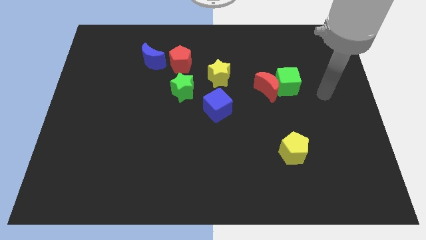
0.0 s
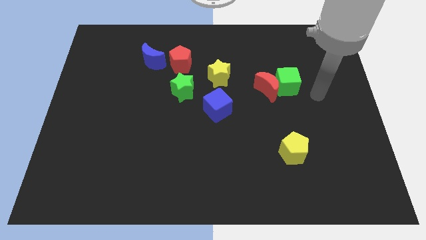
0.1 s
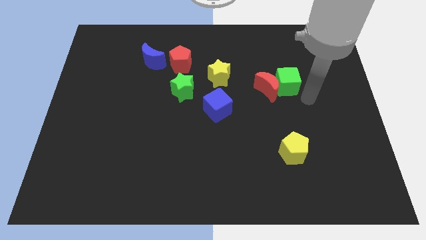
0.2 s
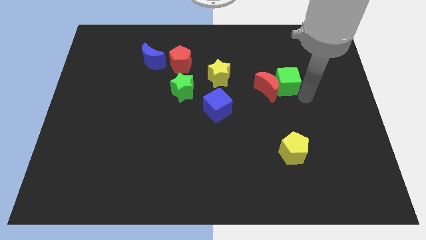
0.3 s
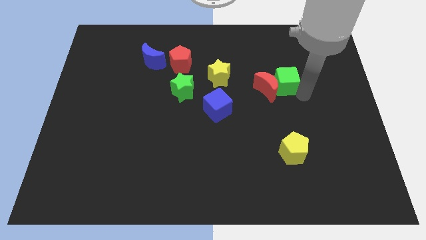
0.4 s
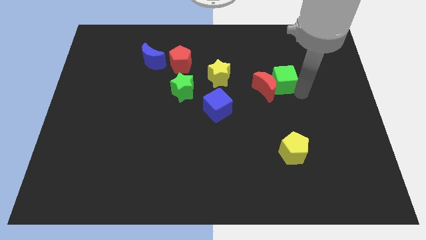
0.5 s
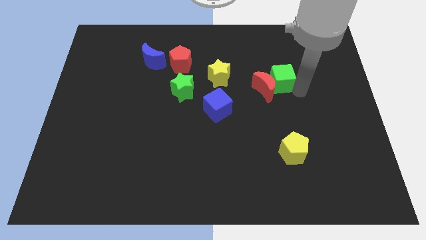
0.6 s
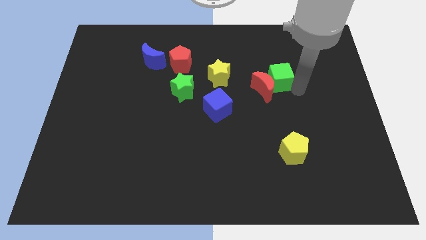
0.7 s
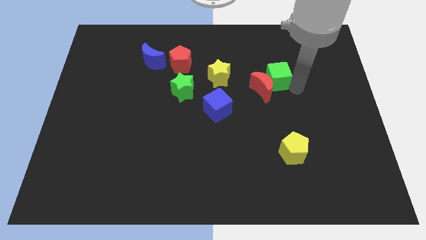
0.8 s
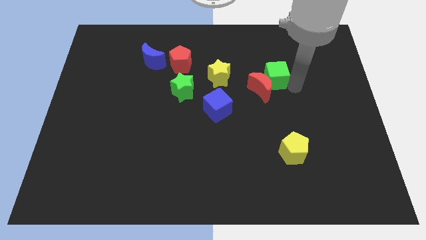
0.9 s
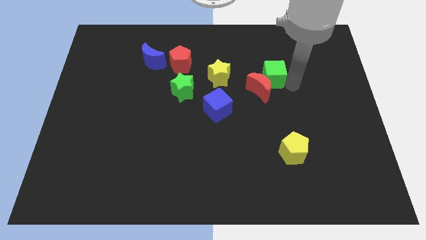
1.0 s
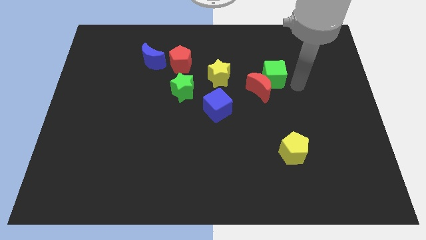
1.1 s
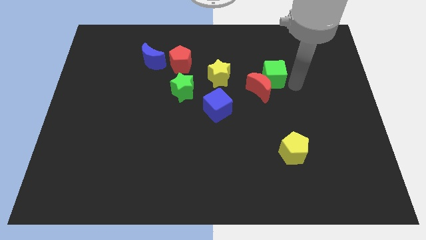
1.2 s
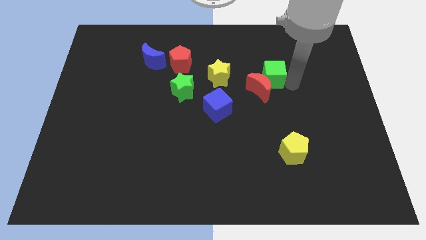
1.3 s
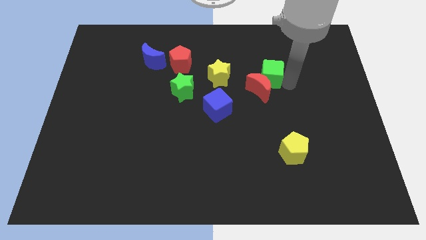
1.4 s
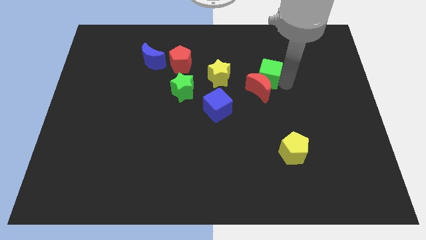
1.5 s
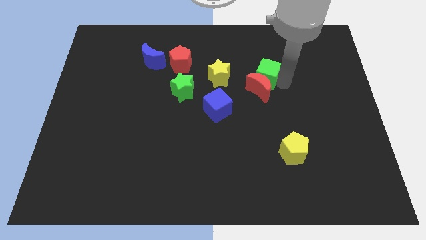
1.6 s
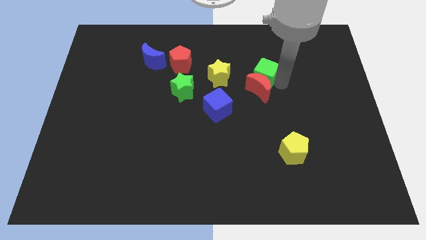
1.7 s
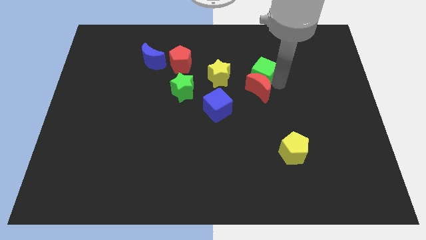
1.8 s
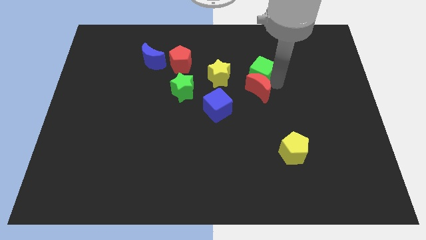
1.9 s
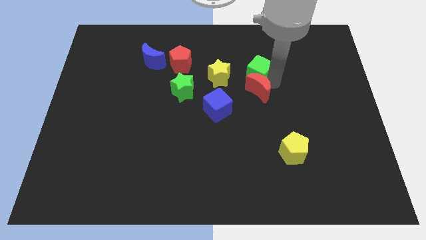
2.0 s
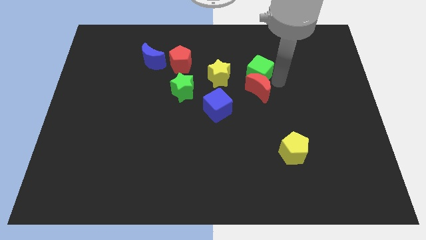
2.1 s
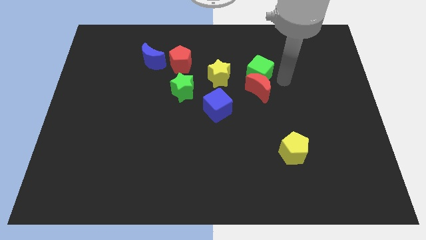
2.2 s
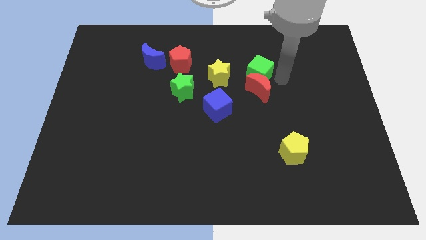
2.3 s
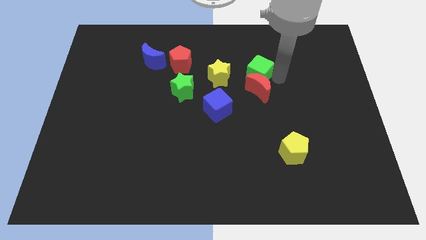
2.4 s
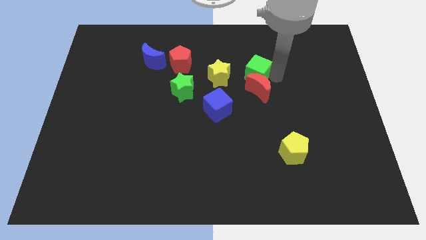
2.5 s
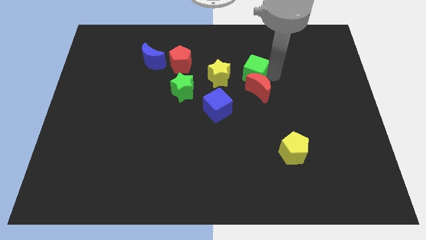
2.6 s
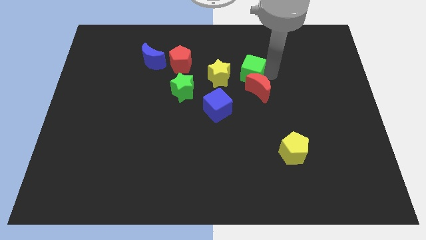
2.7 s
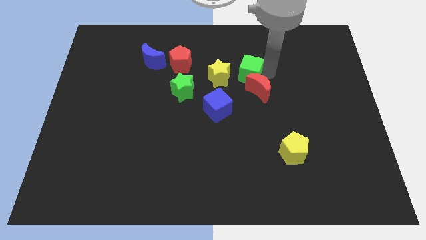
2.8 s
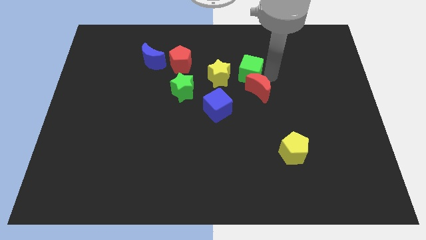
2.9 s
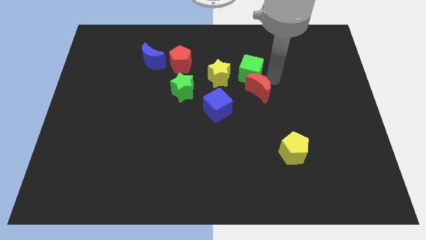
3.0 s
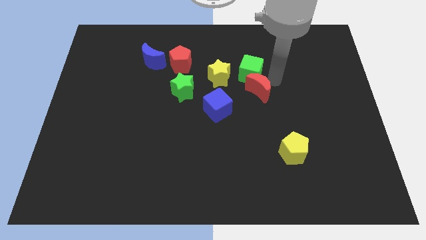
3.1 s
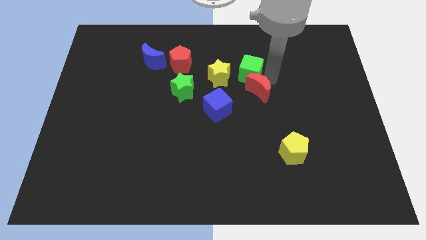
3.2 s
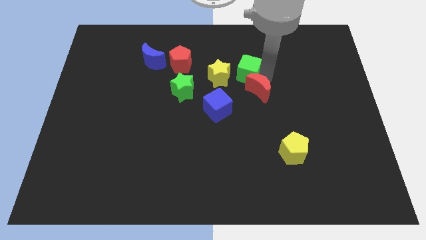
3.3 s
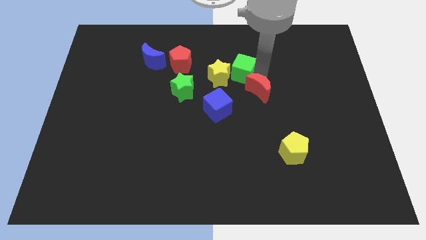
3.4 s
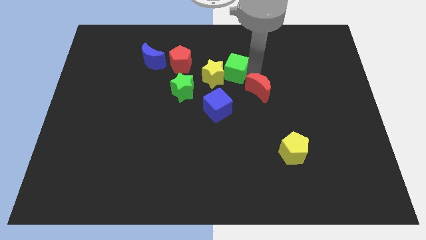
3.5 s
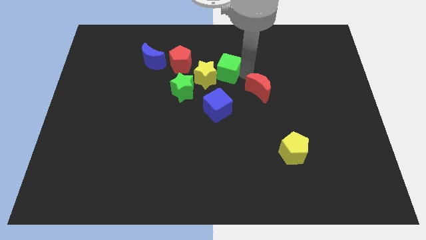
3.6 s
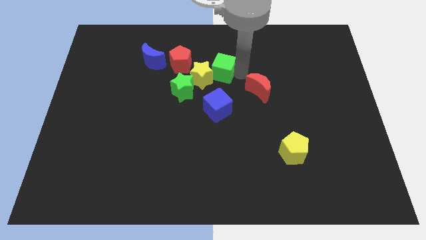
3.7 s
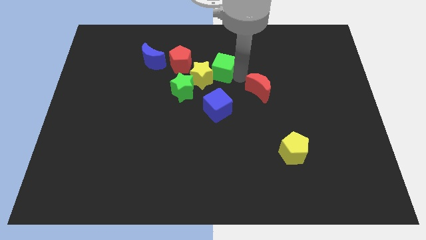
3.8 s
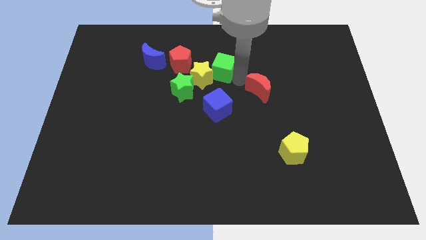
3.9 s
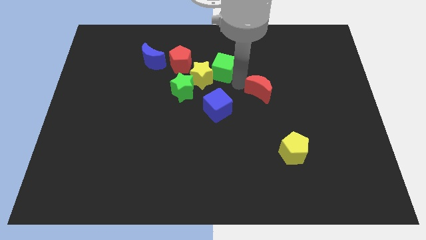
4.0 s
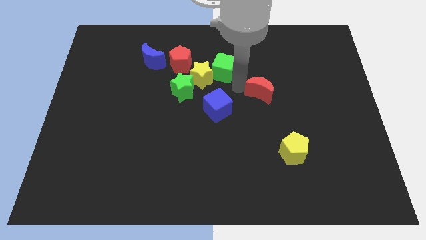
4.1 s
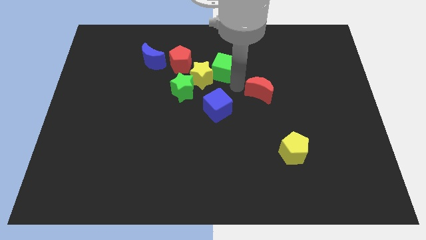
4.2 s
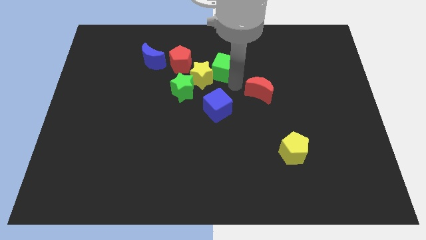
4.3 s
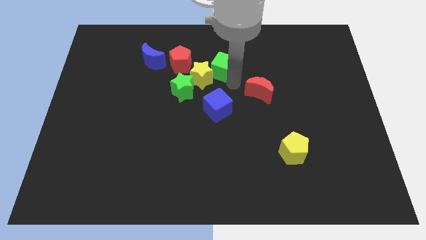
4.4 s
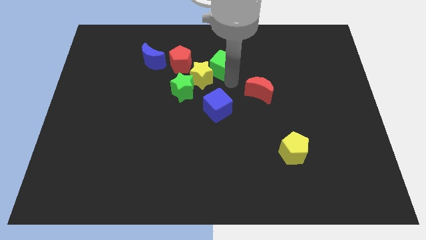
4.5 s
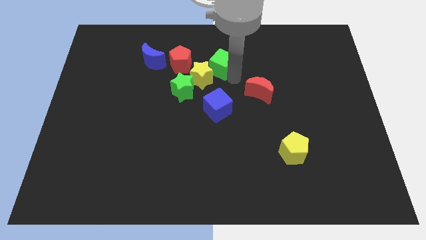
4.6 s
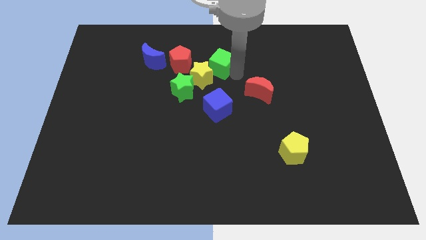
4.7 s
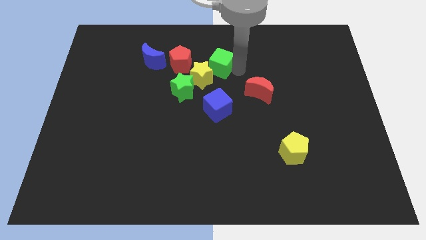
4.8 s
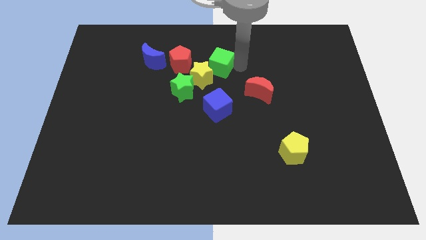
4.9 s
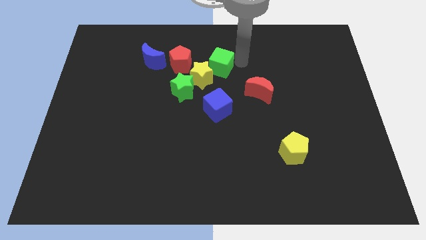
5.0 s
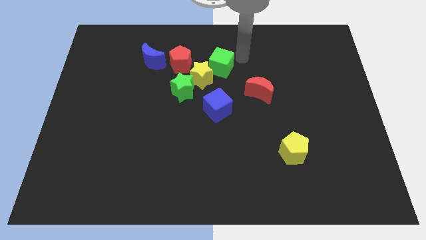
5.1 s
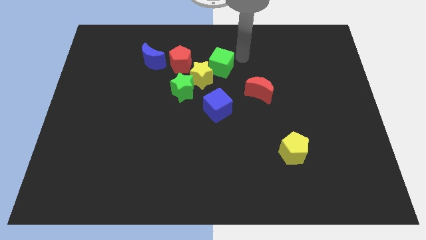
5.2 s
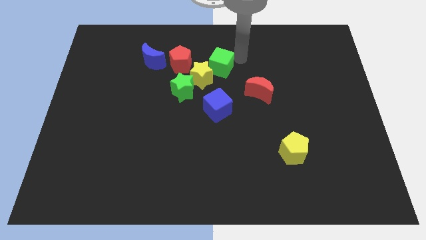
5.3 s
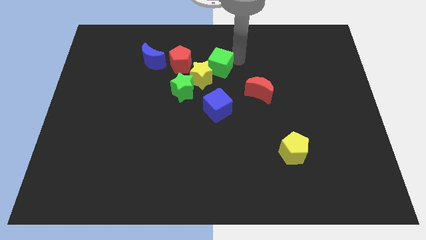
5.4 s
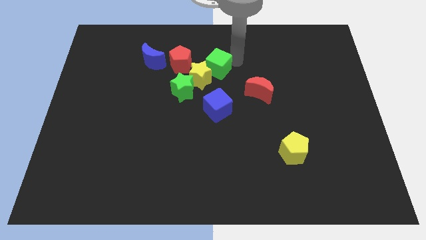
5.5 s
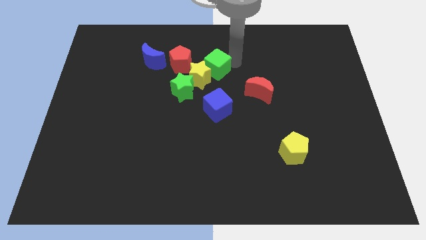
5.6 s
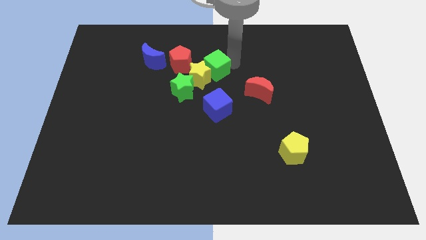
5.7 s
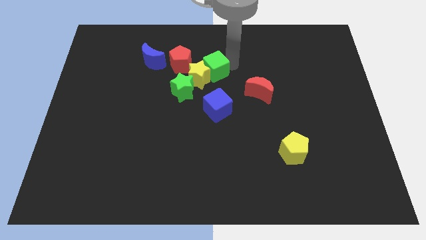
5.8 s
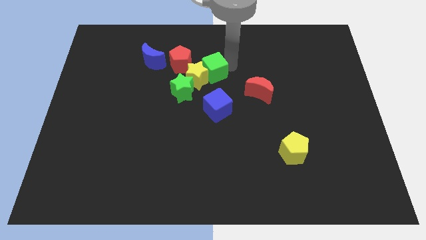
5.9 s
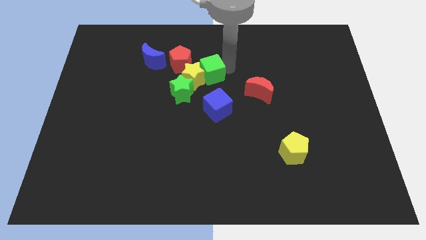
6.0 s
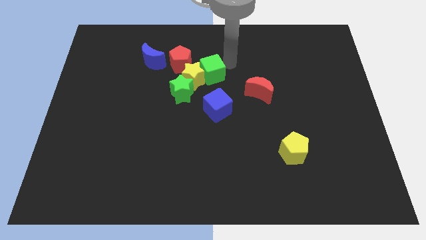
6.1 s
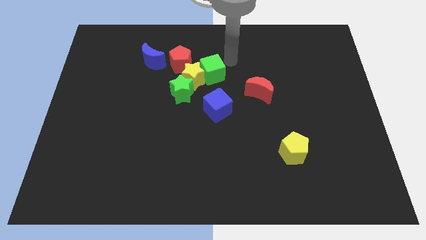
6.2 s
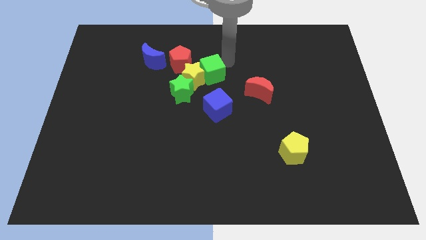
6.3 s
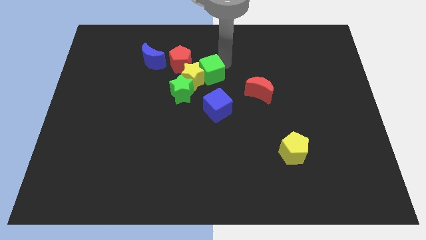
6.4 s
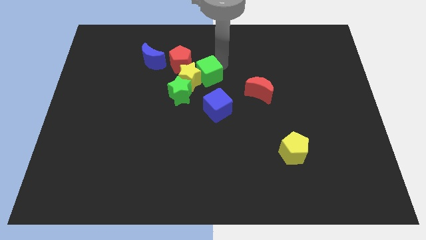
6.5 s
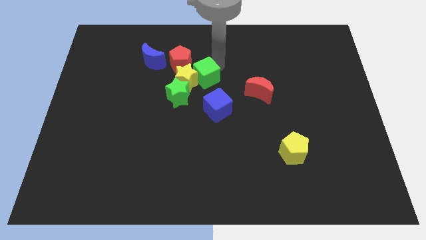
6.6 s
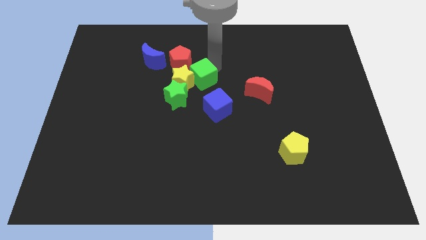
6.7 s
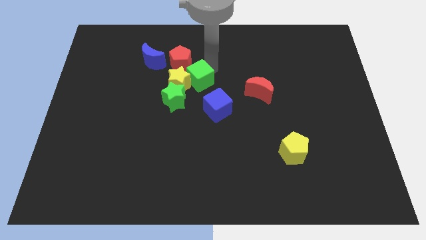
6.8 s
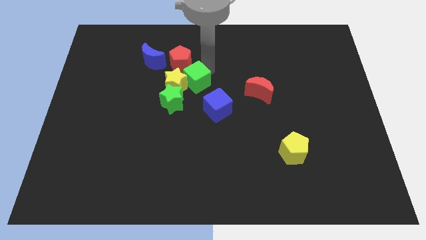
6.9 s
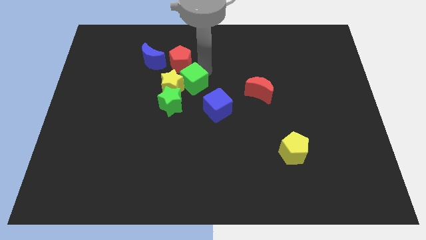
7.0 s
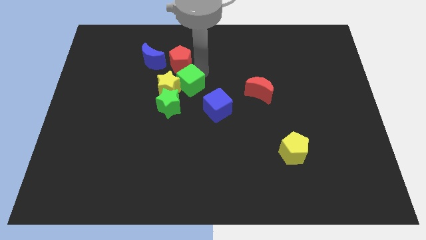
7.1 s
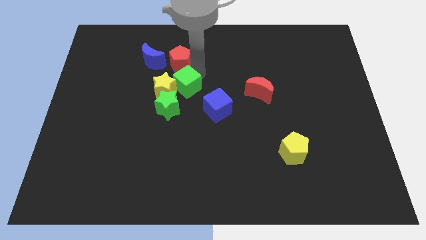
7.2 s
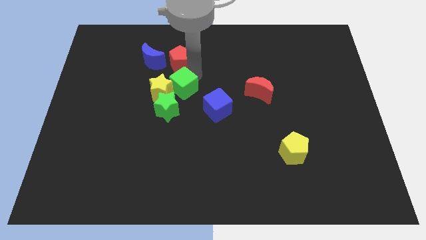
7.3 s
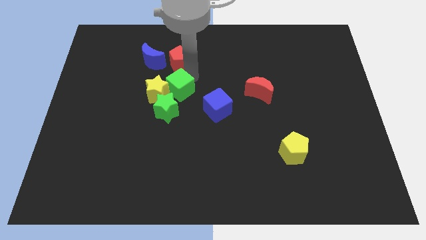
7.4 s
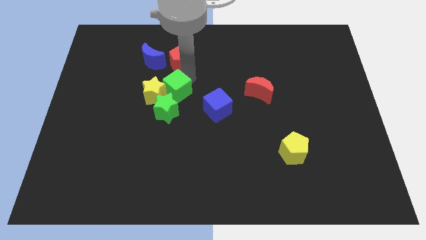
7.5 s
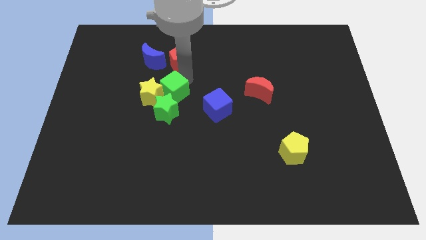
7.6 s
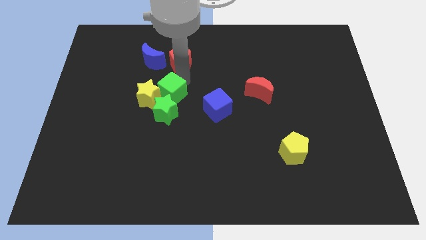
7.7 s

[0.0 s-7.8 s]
move the green cube towards the green star
